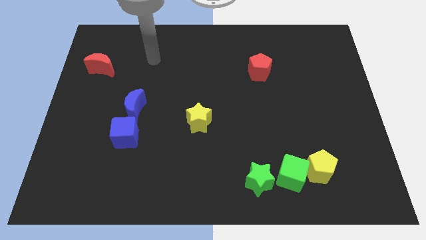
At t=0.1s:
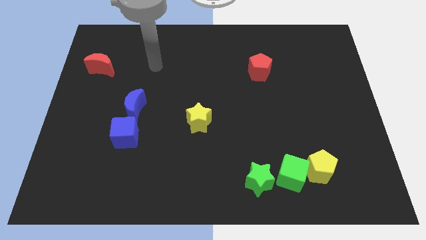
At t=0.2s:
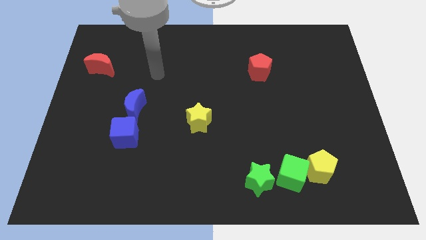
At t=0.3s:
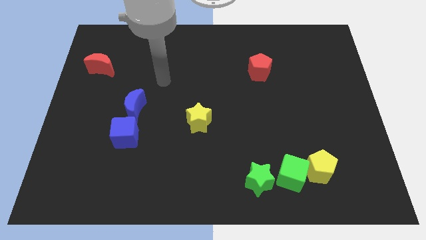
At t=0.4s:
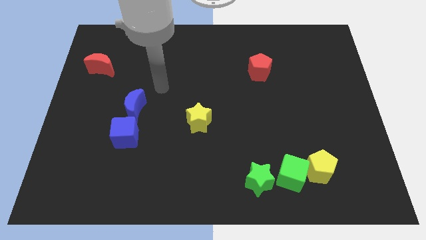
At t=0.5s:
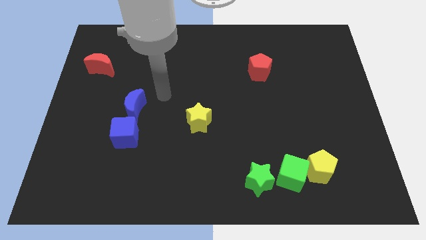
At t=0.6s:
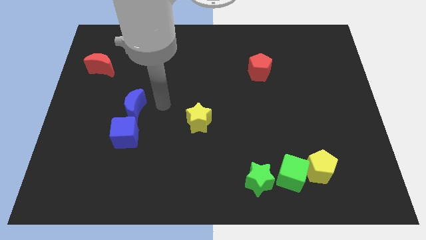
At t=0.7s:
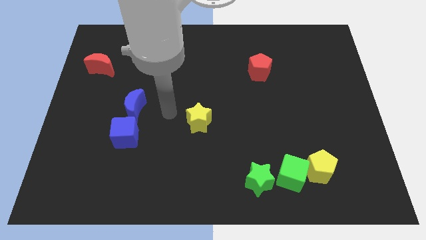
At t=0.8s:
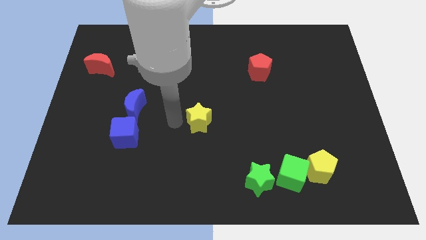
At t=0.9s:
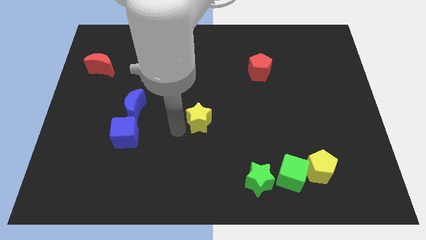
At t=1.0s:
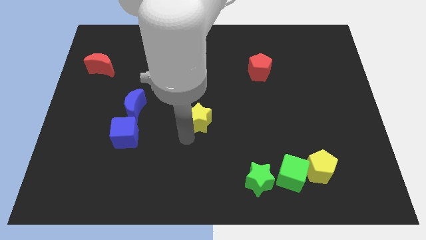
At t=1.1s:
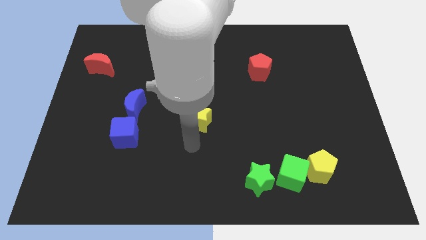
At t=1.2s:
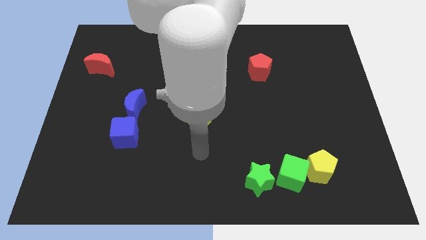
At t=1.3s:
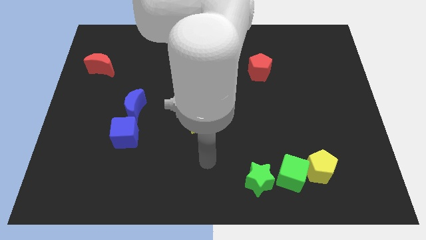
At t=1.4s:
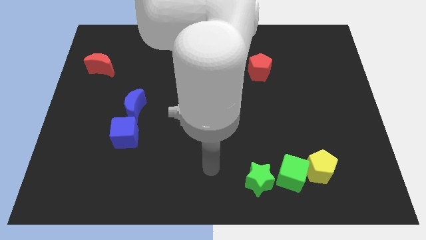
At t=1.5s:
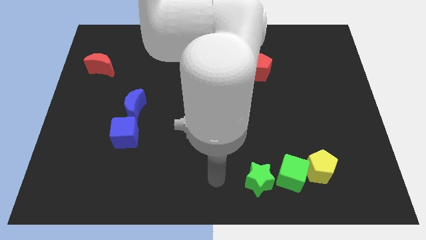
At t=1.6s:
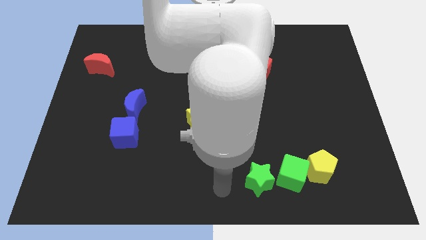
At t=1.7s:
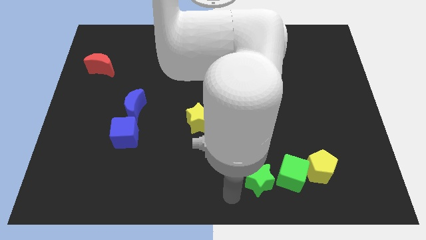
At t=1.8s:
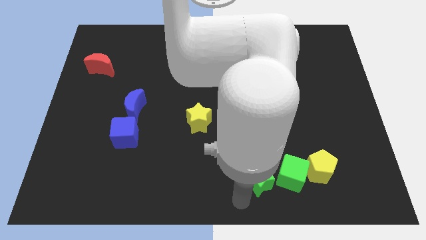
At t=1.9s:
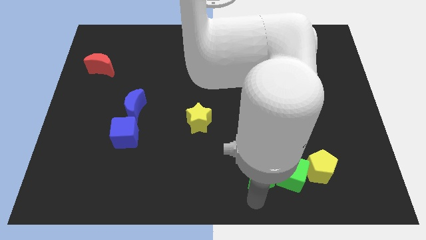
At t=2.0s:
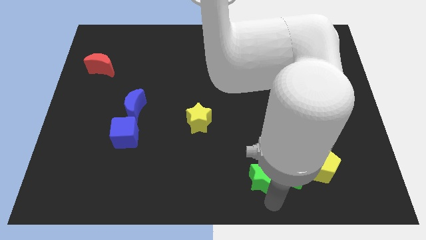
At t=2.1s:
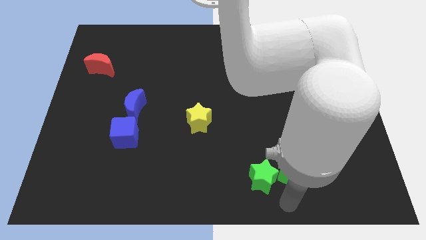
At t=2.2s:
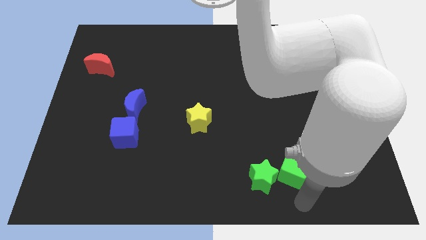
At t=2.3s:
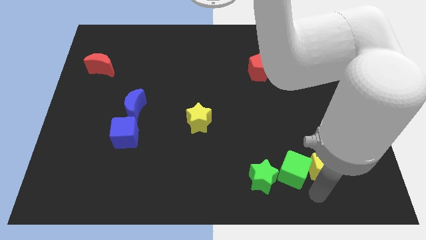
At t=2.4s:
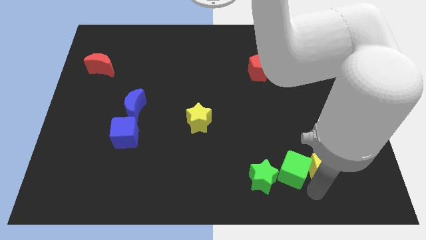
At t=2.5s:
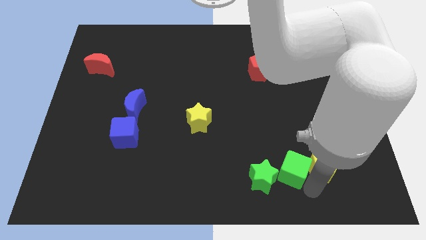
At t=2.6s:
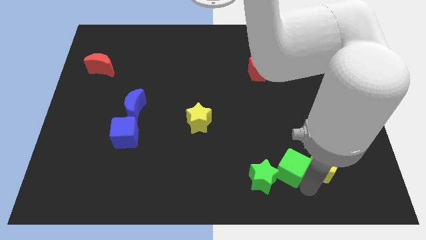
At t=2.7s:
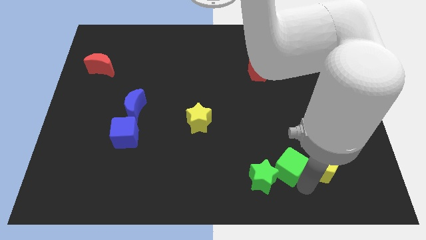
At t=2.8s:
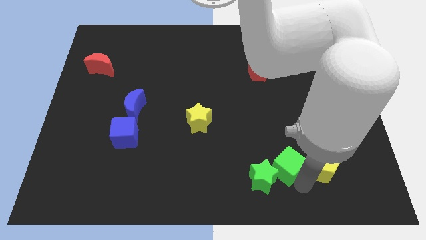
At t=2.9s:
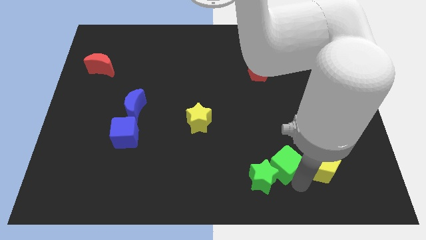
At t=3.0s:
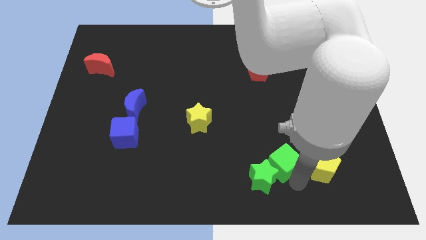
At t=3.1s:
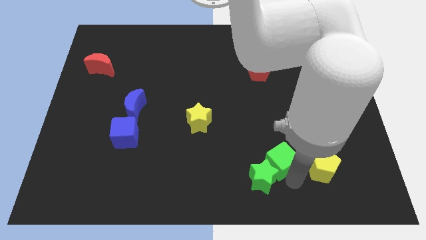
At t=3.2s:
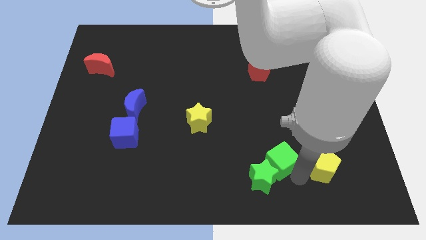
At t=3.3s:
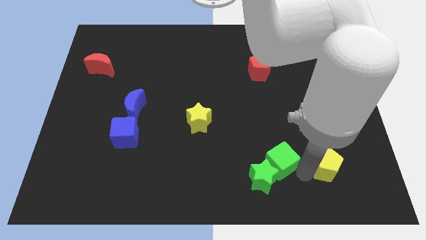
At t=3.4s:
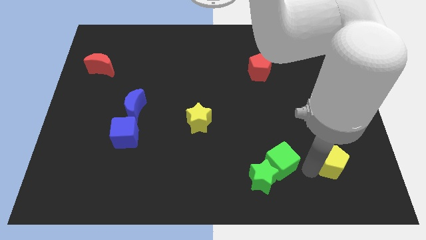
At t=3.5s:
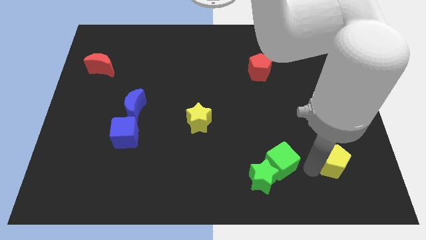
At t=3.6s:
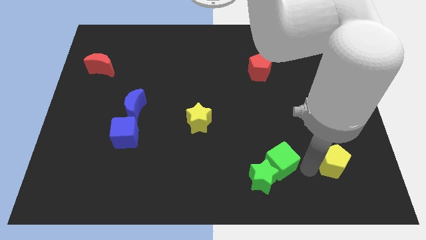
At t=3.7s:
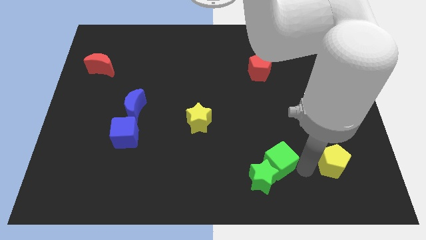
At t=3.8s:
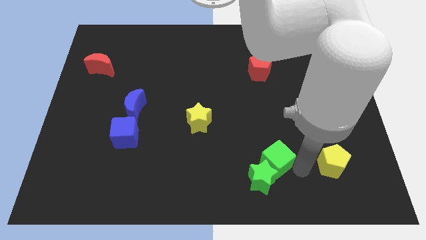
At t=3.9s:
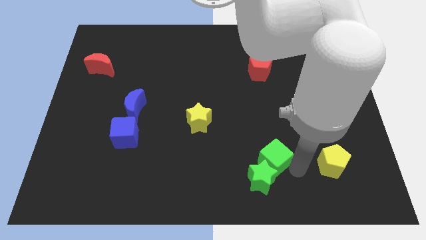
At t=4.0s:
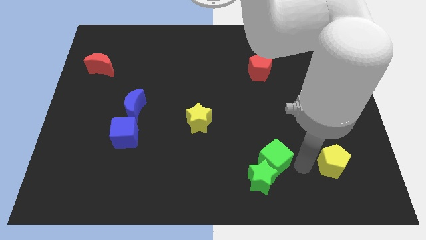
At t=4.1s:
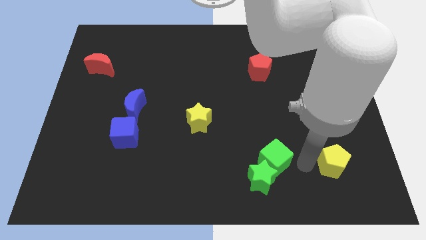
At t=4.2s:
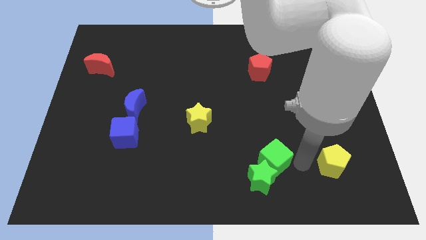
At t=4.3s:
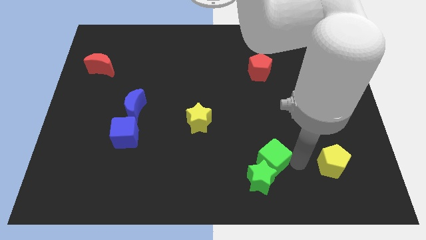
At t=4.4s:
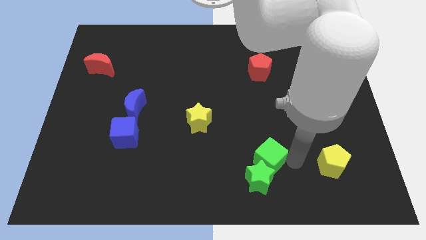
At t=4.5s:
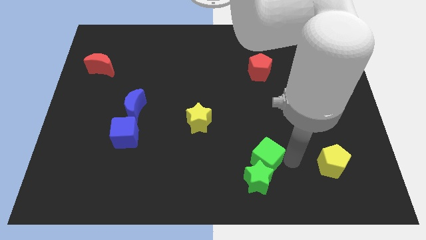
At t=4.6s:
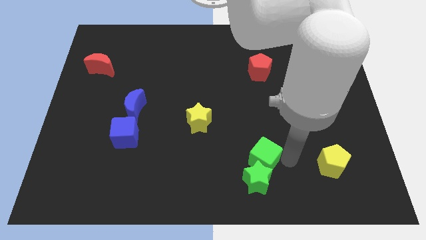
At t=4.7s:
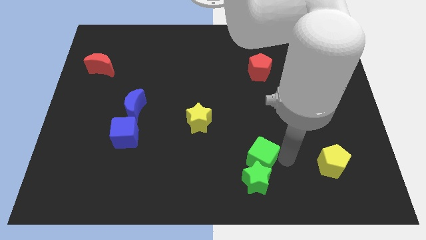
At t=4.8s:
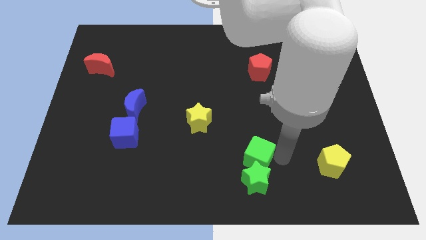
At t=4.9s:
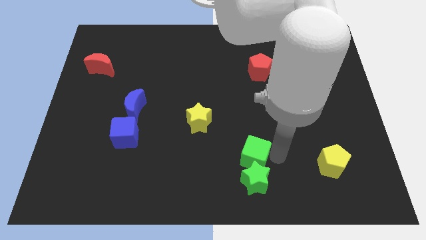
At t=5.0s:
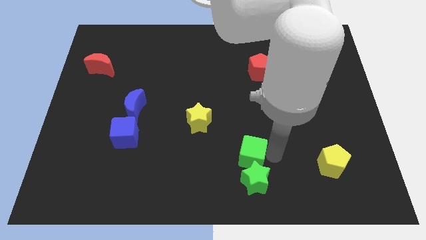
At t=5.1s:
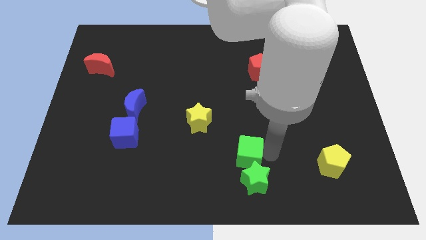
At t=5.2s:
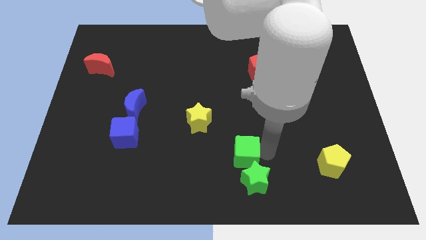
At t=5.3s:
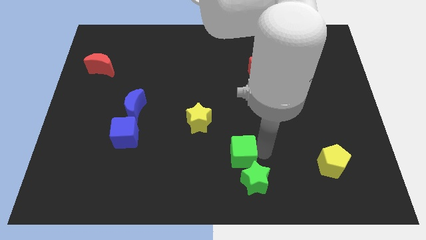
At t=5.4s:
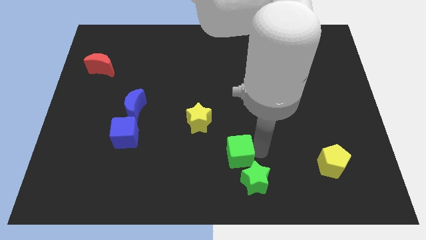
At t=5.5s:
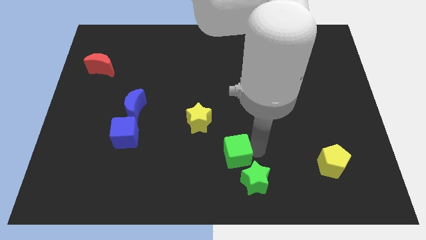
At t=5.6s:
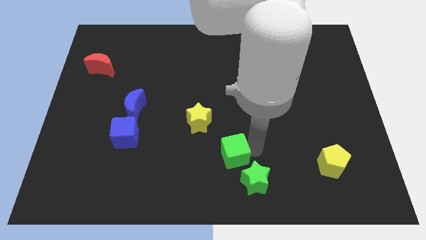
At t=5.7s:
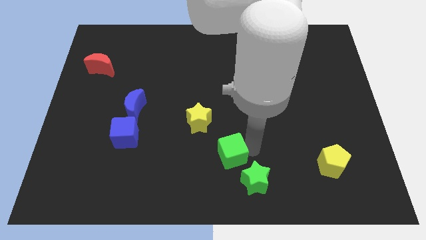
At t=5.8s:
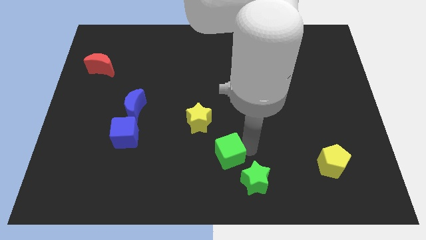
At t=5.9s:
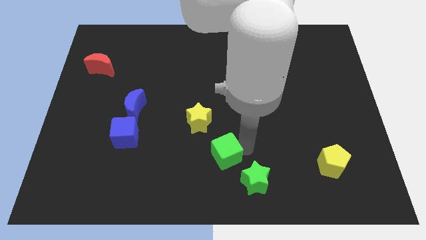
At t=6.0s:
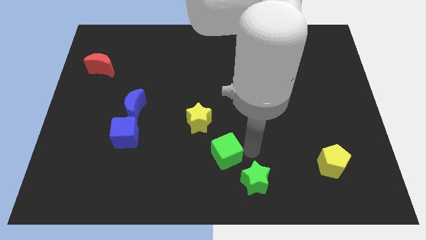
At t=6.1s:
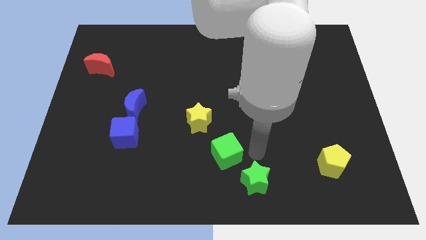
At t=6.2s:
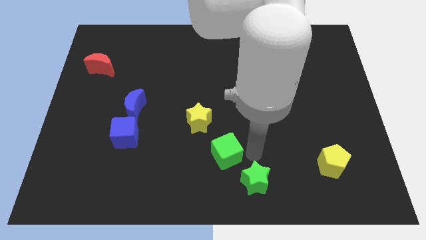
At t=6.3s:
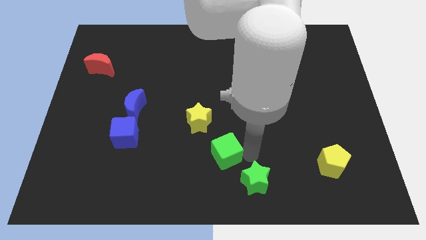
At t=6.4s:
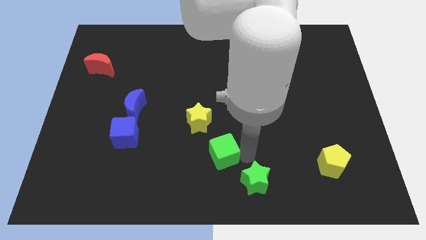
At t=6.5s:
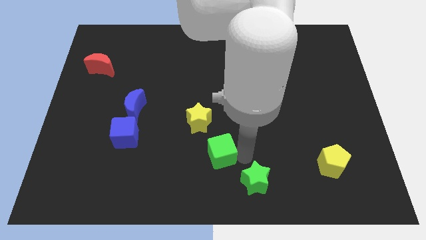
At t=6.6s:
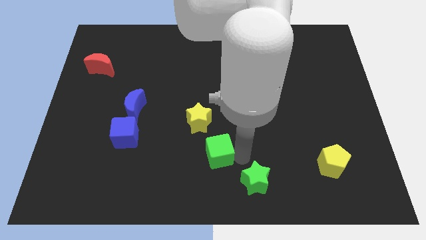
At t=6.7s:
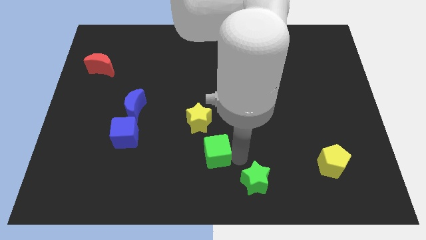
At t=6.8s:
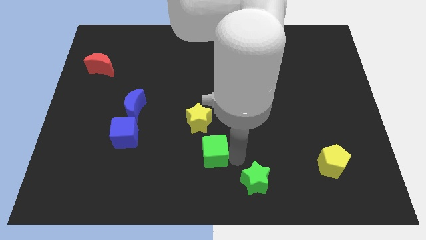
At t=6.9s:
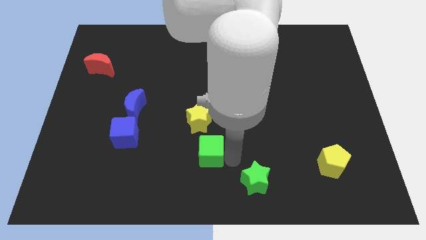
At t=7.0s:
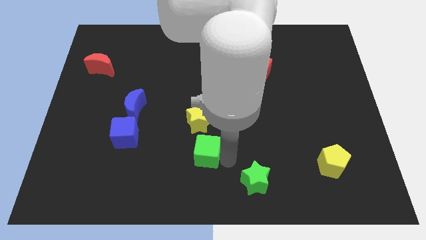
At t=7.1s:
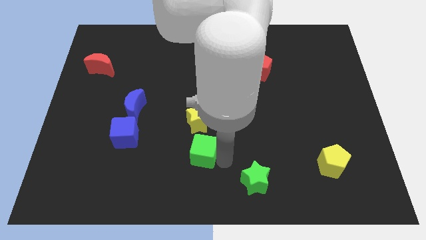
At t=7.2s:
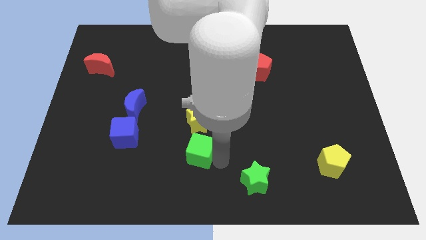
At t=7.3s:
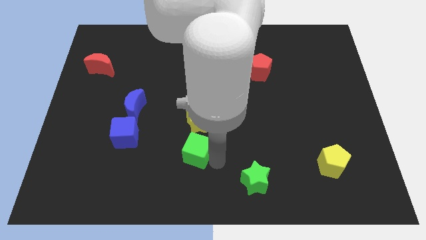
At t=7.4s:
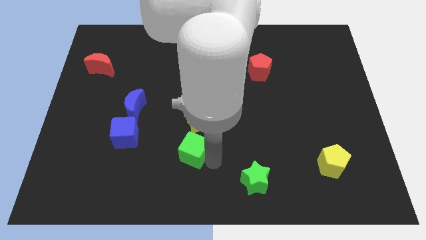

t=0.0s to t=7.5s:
push the green cube diagonally down and to the left of the yellow star
